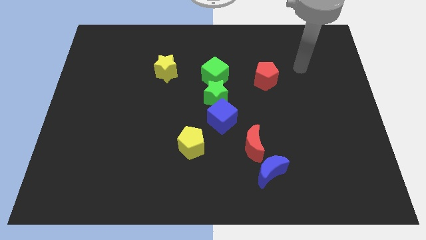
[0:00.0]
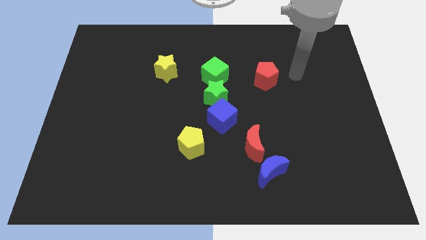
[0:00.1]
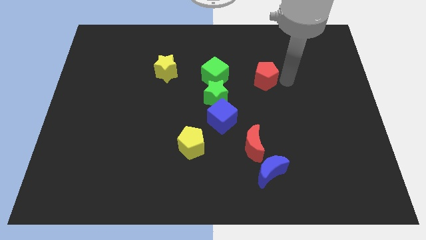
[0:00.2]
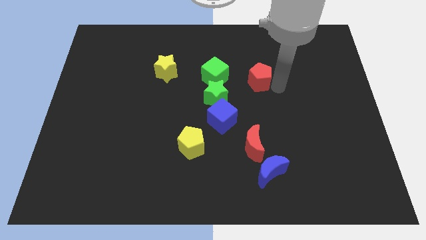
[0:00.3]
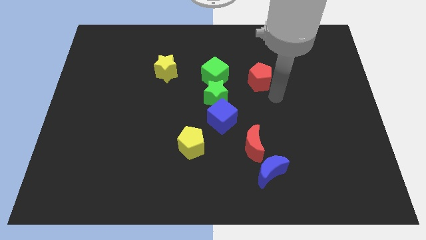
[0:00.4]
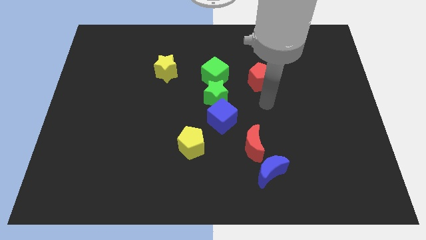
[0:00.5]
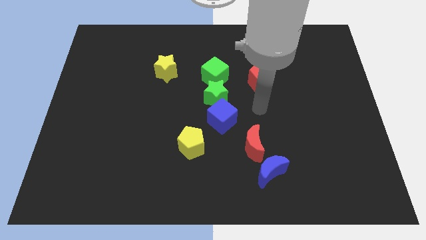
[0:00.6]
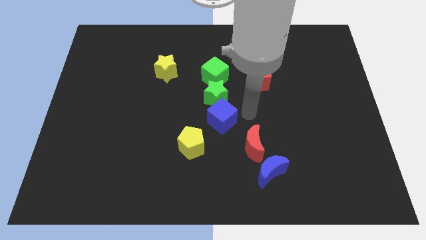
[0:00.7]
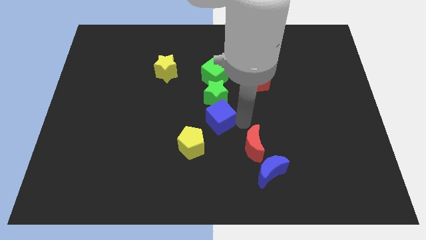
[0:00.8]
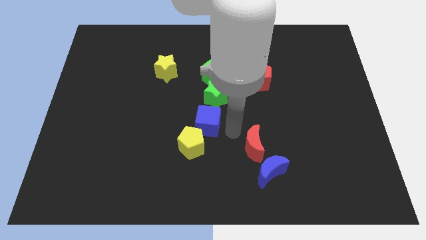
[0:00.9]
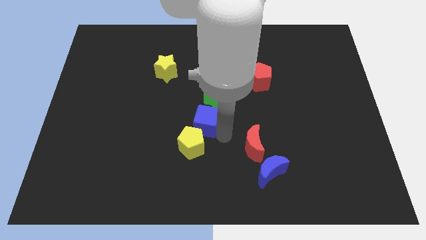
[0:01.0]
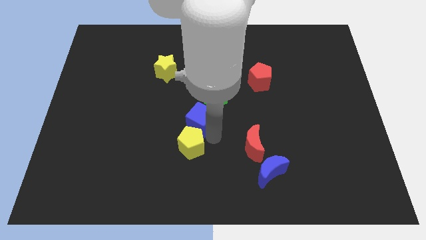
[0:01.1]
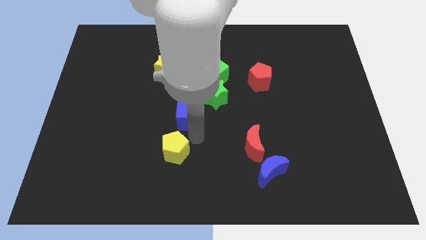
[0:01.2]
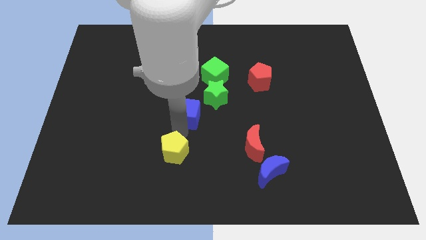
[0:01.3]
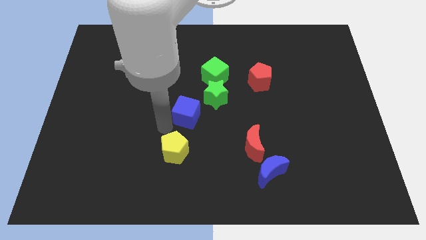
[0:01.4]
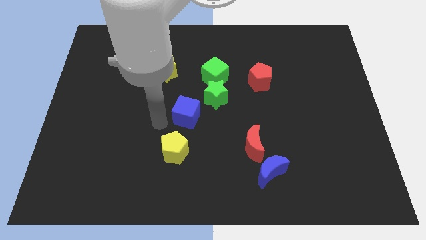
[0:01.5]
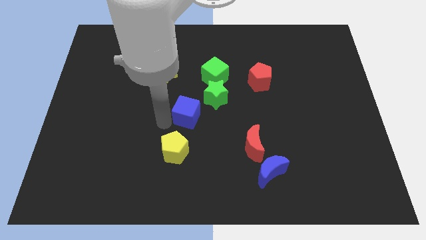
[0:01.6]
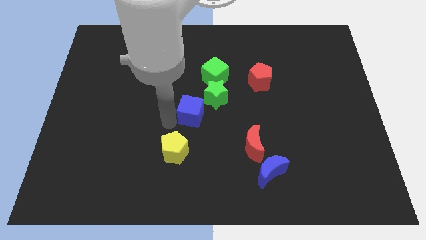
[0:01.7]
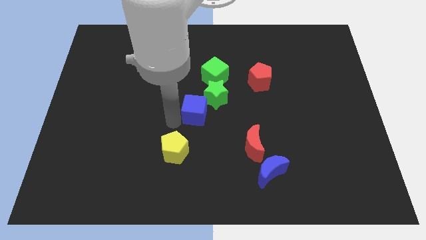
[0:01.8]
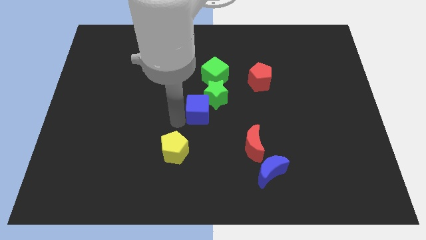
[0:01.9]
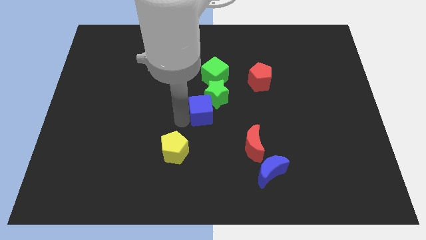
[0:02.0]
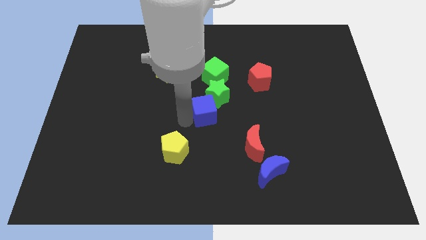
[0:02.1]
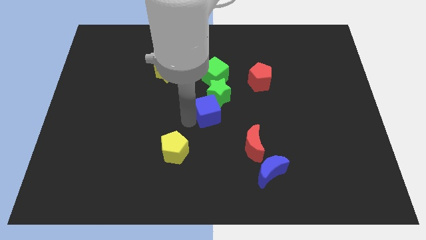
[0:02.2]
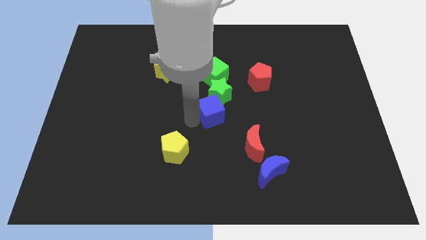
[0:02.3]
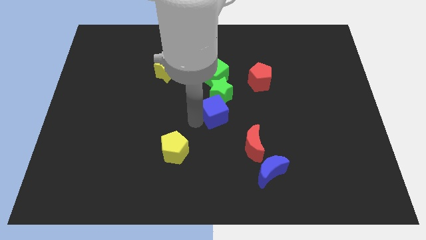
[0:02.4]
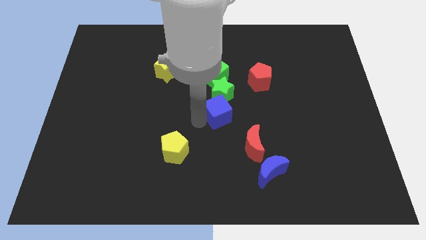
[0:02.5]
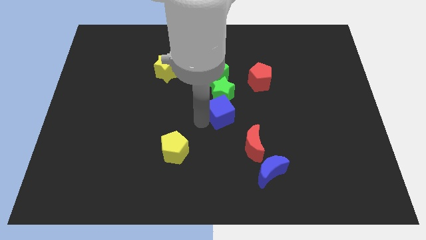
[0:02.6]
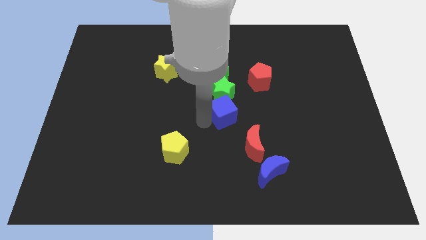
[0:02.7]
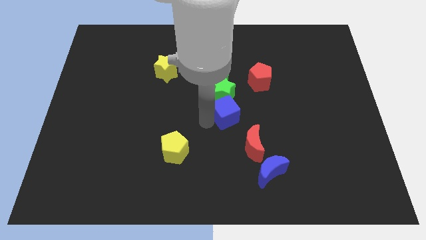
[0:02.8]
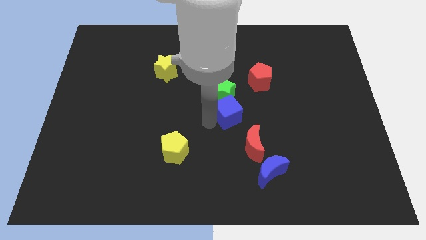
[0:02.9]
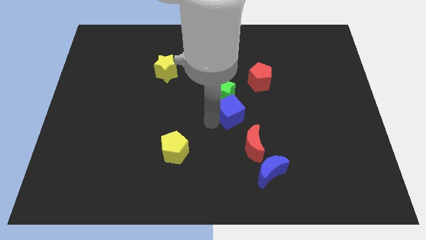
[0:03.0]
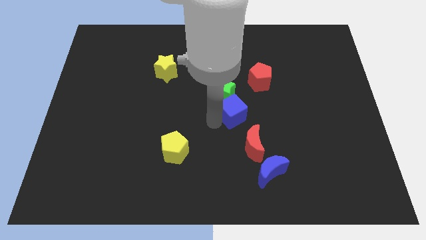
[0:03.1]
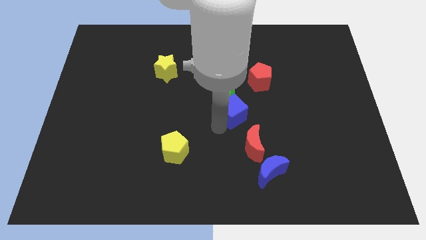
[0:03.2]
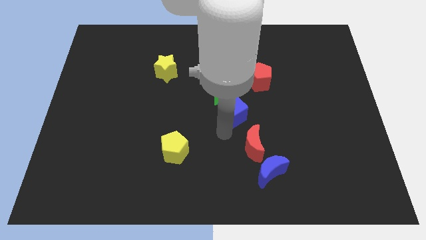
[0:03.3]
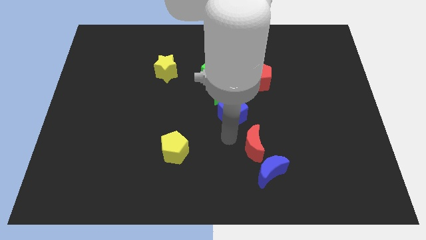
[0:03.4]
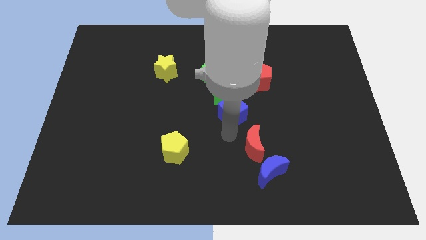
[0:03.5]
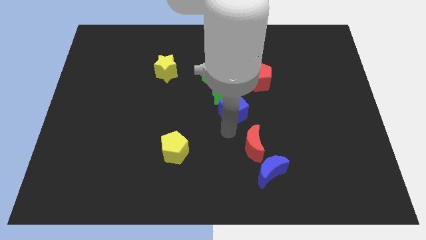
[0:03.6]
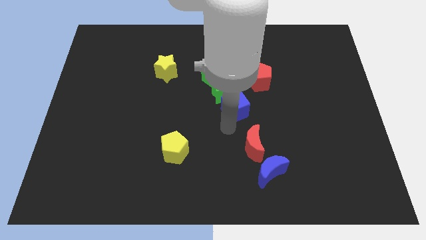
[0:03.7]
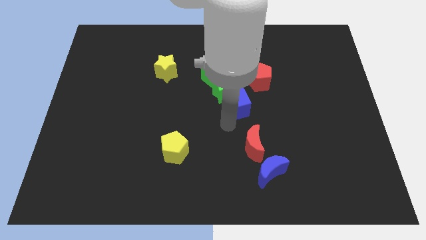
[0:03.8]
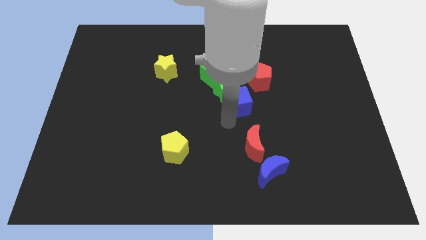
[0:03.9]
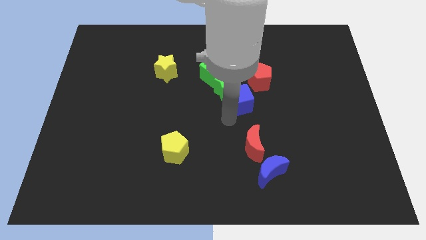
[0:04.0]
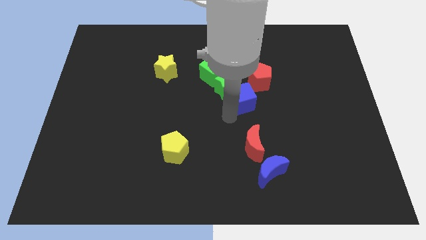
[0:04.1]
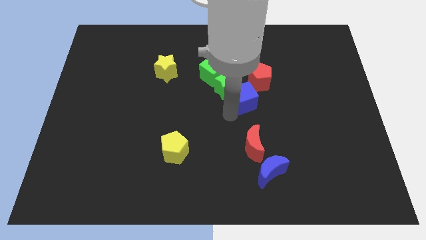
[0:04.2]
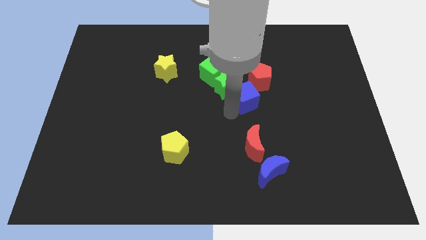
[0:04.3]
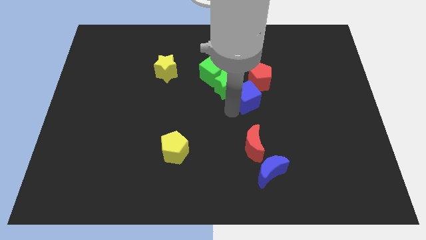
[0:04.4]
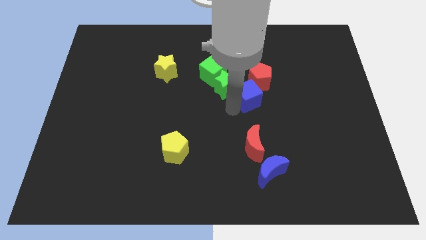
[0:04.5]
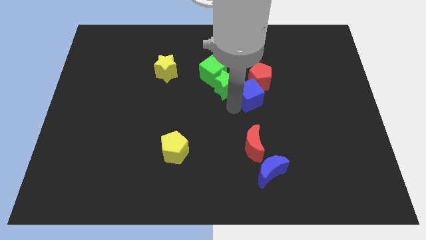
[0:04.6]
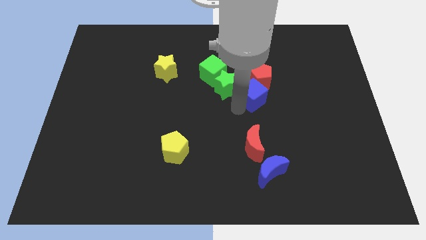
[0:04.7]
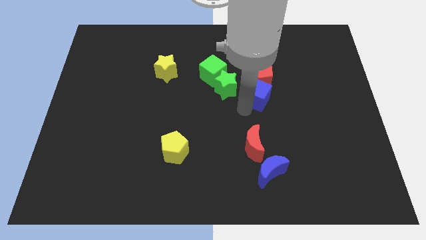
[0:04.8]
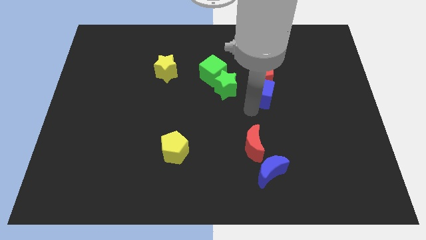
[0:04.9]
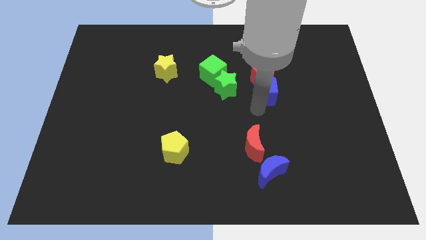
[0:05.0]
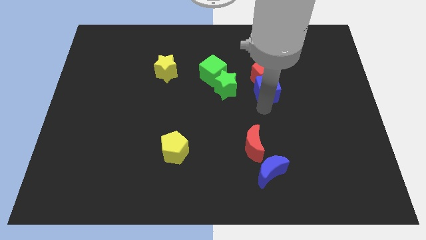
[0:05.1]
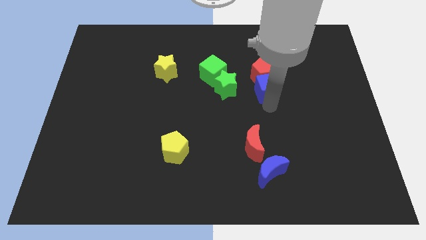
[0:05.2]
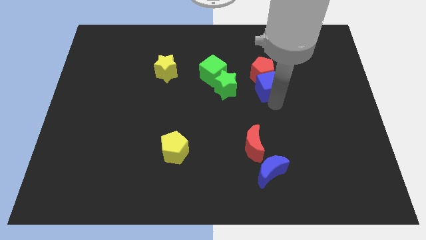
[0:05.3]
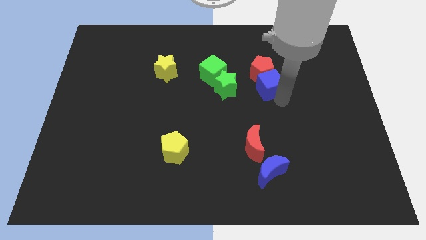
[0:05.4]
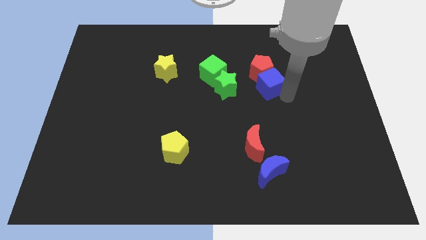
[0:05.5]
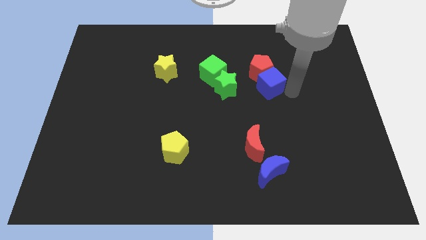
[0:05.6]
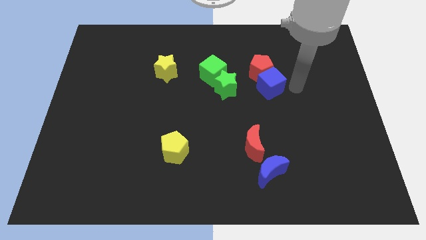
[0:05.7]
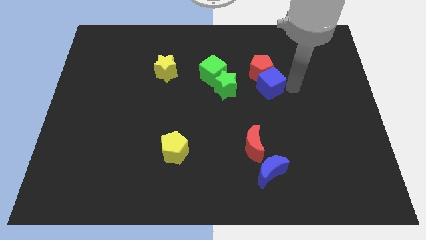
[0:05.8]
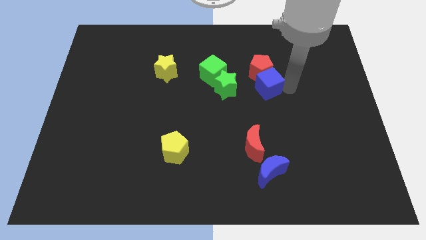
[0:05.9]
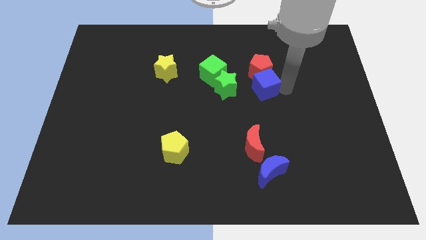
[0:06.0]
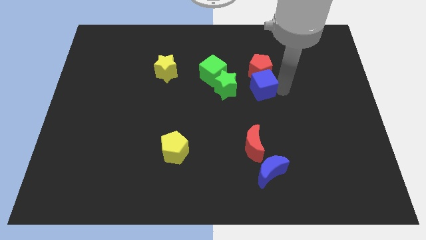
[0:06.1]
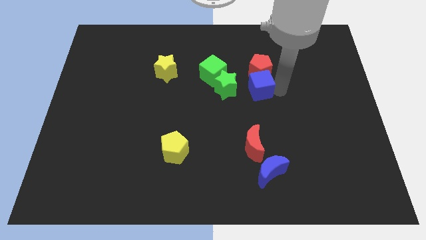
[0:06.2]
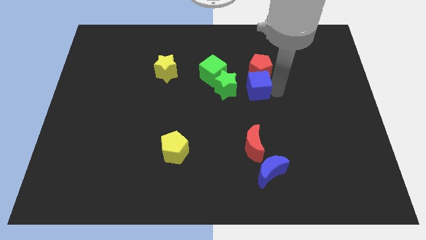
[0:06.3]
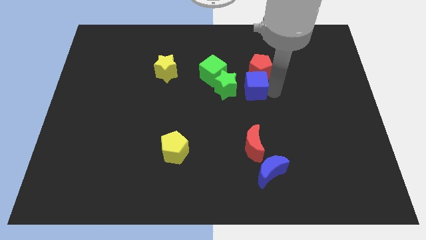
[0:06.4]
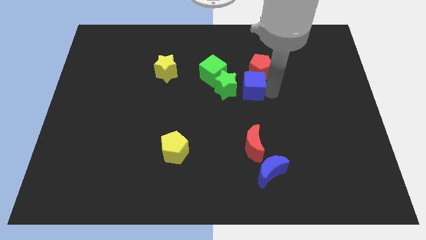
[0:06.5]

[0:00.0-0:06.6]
slide the blue cube a bit up

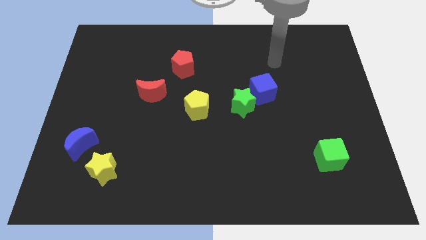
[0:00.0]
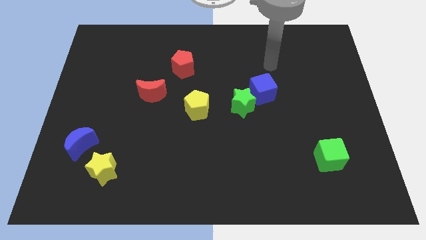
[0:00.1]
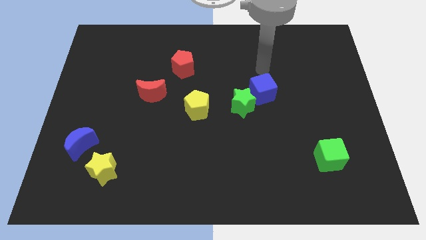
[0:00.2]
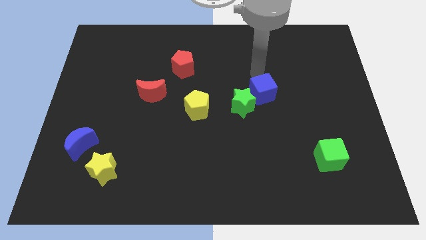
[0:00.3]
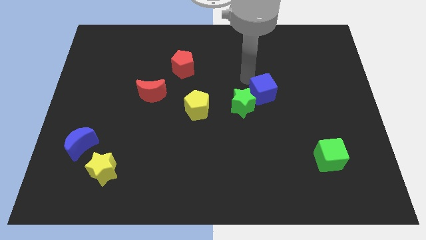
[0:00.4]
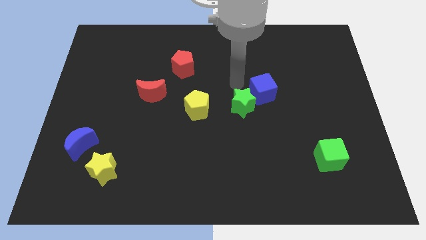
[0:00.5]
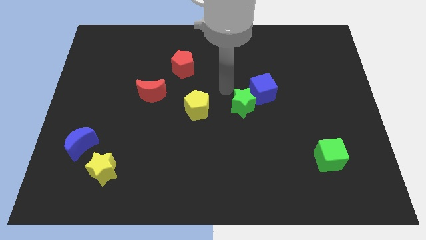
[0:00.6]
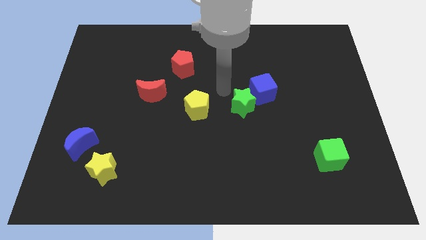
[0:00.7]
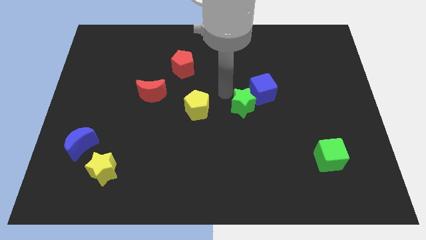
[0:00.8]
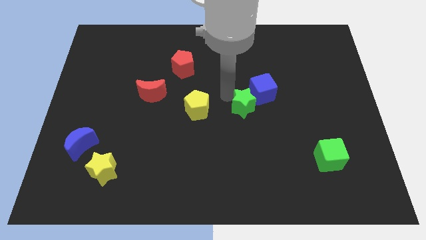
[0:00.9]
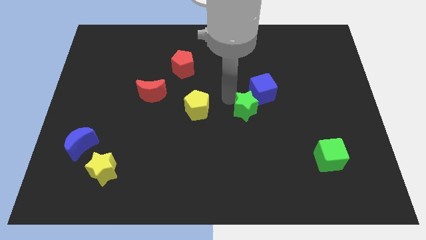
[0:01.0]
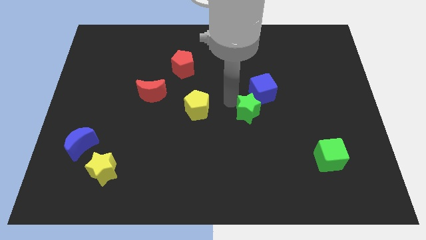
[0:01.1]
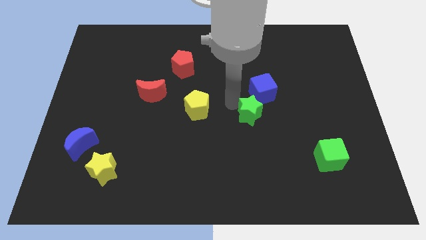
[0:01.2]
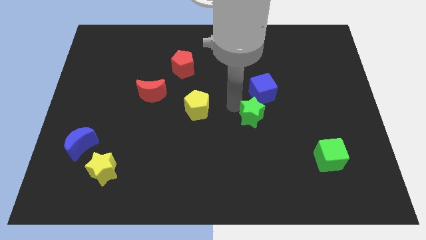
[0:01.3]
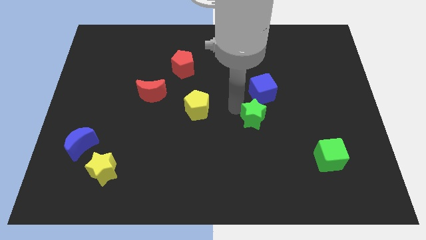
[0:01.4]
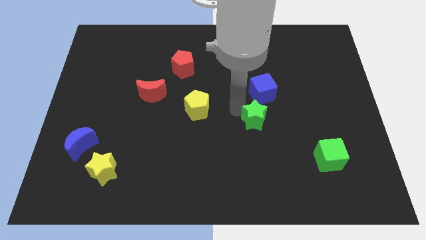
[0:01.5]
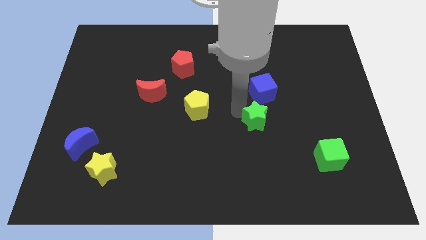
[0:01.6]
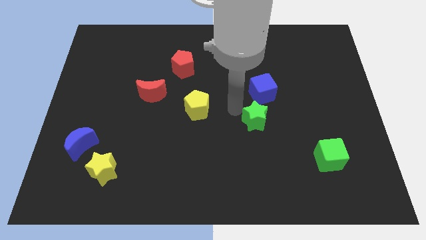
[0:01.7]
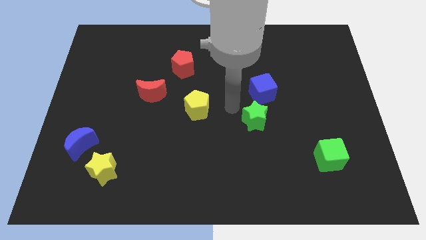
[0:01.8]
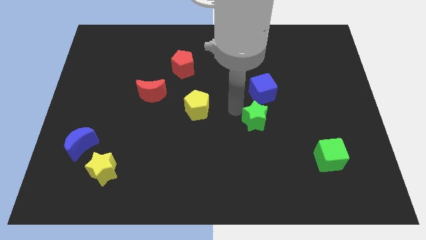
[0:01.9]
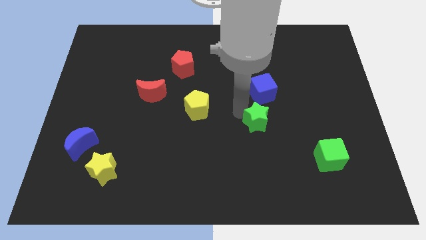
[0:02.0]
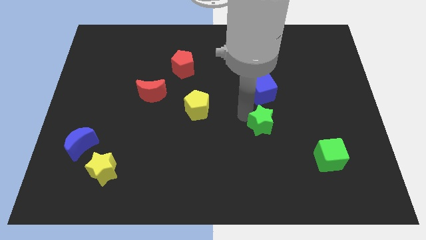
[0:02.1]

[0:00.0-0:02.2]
move the green star diagonally down and to the right a bit
